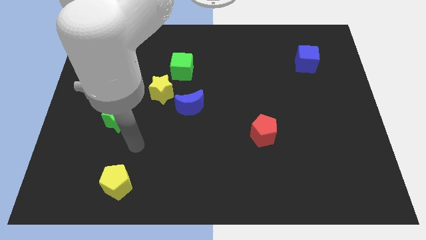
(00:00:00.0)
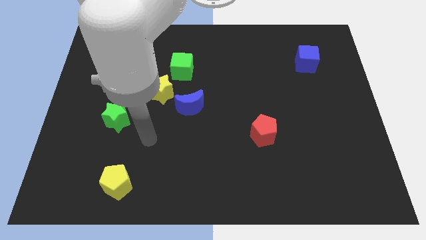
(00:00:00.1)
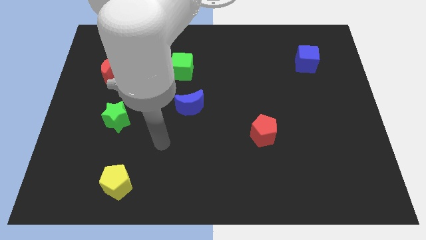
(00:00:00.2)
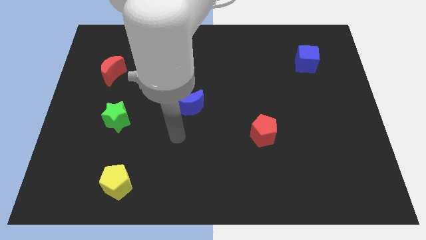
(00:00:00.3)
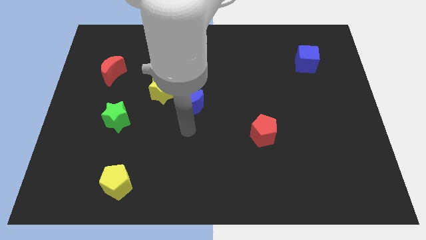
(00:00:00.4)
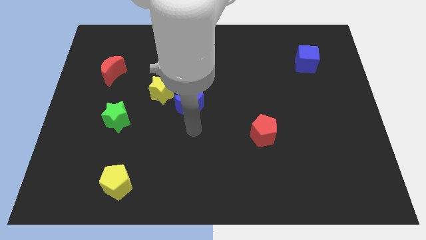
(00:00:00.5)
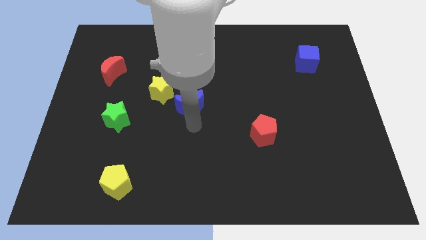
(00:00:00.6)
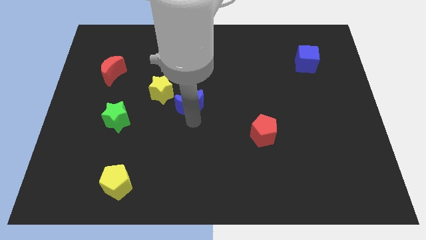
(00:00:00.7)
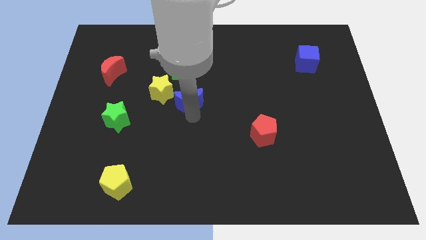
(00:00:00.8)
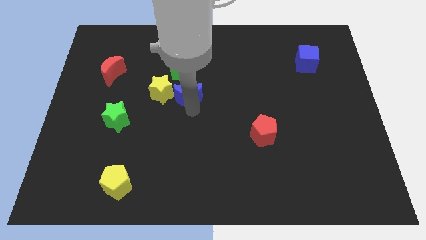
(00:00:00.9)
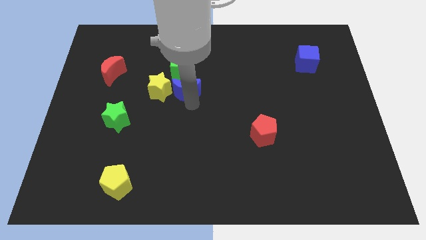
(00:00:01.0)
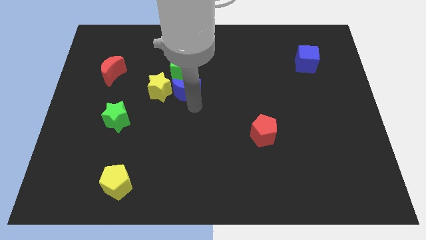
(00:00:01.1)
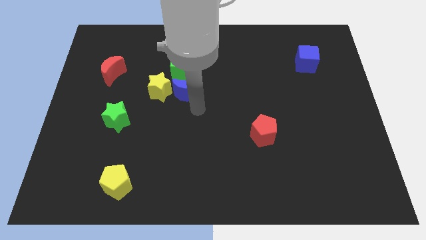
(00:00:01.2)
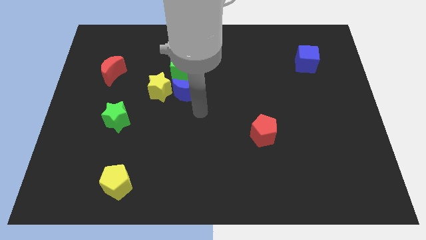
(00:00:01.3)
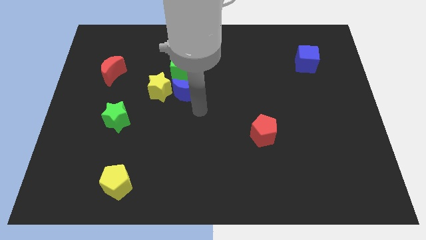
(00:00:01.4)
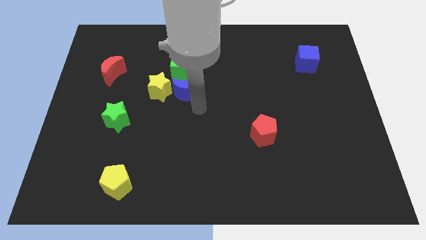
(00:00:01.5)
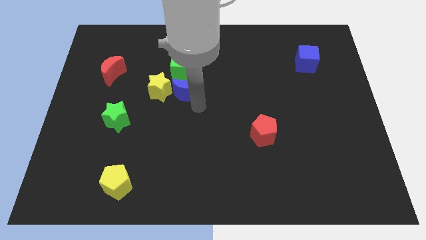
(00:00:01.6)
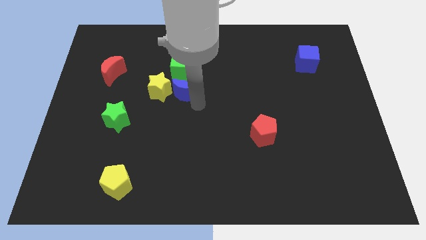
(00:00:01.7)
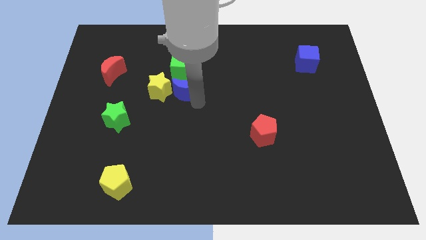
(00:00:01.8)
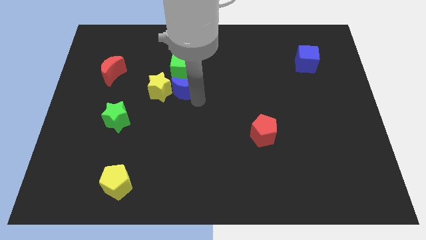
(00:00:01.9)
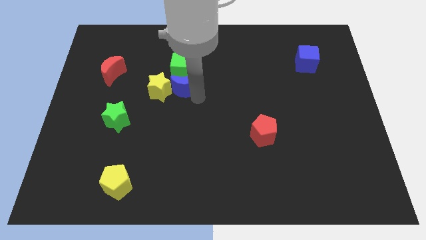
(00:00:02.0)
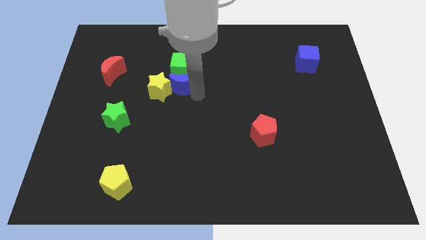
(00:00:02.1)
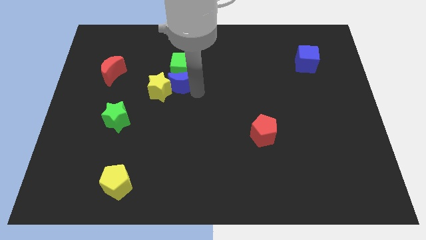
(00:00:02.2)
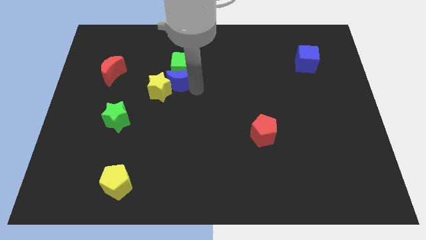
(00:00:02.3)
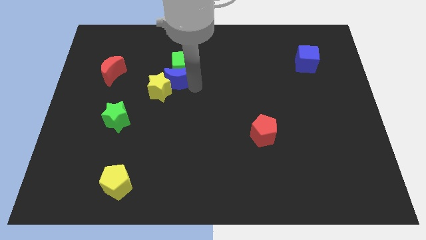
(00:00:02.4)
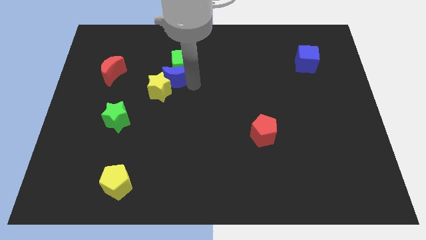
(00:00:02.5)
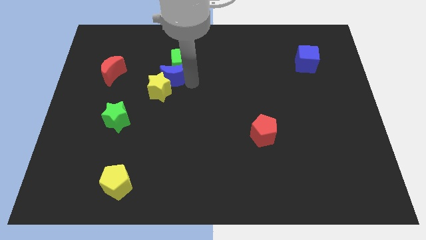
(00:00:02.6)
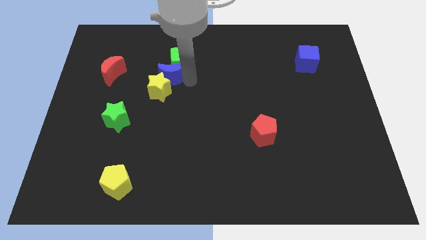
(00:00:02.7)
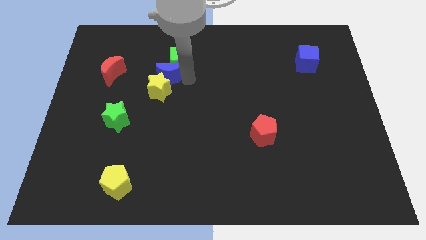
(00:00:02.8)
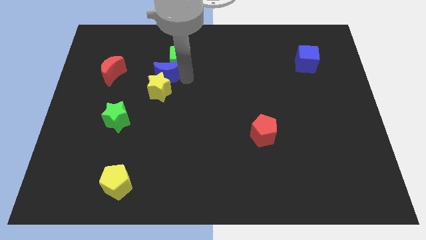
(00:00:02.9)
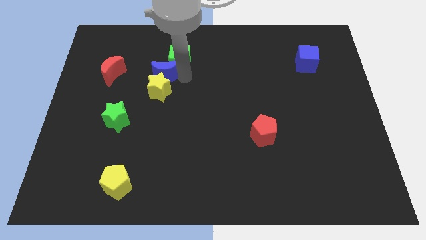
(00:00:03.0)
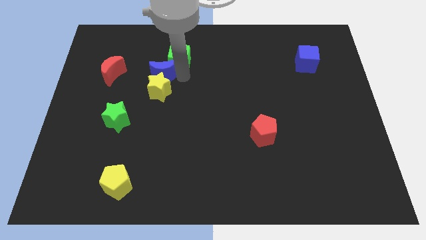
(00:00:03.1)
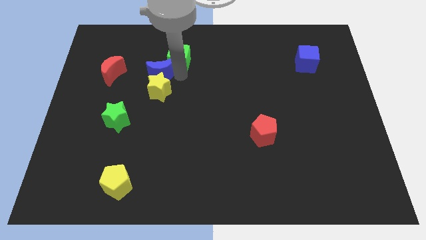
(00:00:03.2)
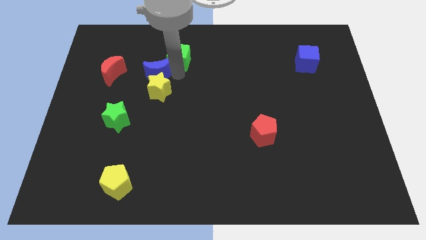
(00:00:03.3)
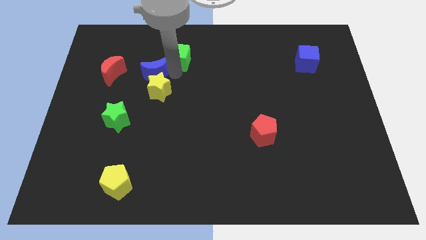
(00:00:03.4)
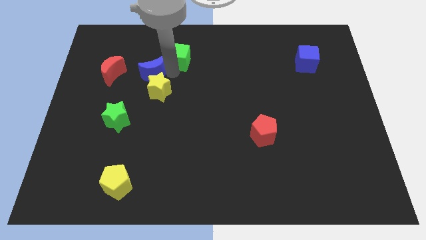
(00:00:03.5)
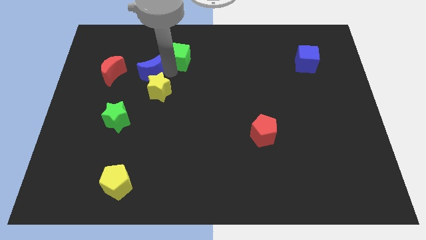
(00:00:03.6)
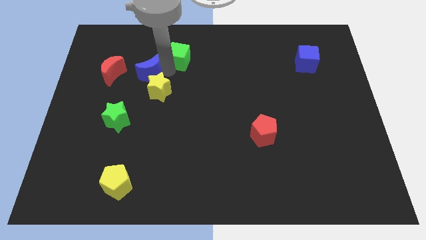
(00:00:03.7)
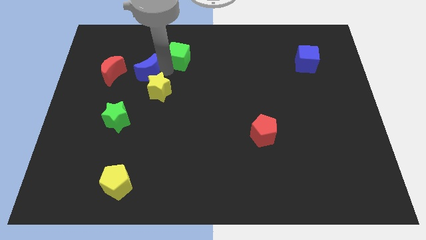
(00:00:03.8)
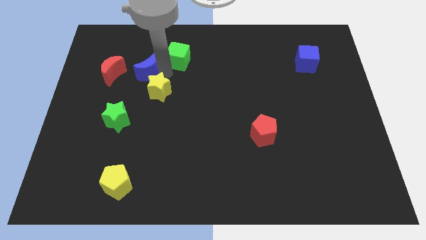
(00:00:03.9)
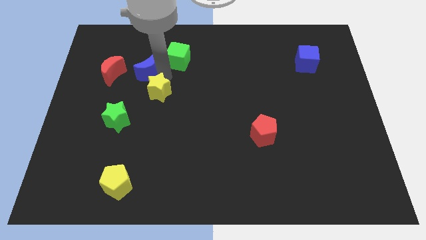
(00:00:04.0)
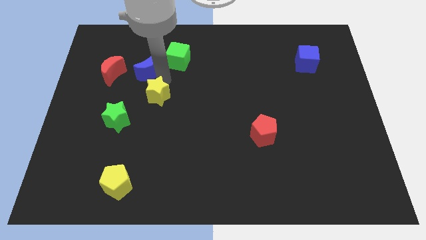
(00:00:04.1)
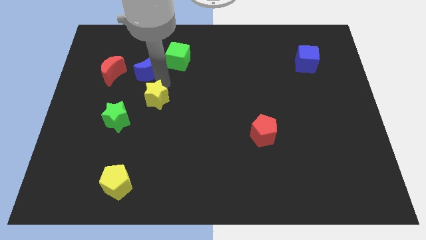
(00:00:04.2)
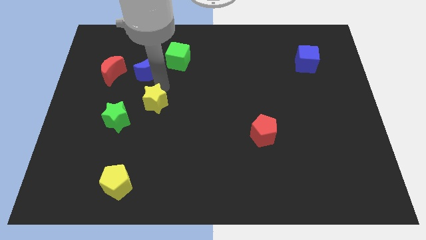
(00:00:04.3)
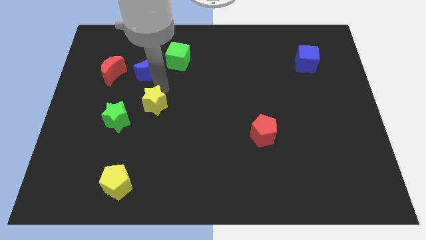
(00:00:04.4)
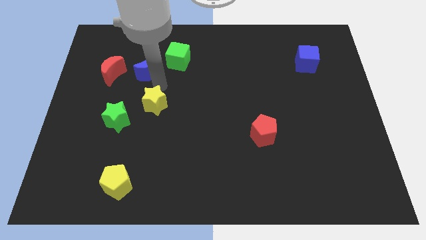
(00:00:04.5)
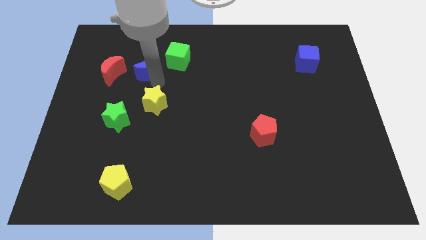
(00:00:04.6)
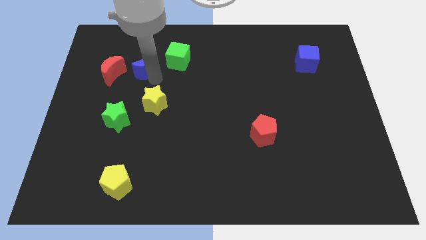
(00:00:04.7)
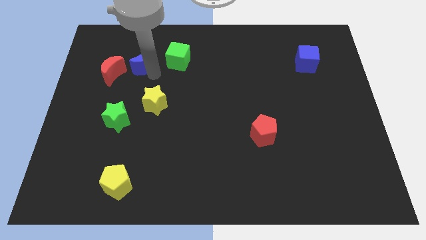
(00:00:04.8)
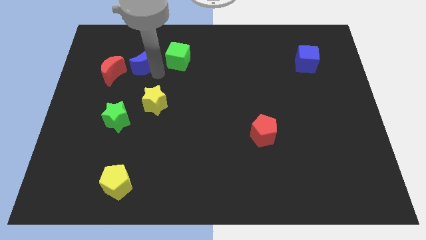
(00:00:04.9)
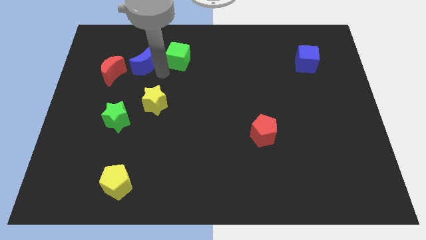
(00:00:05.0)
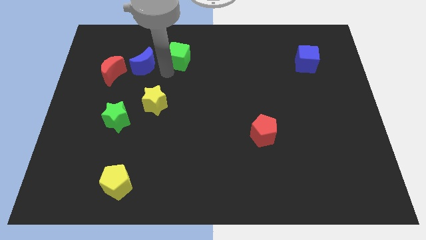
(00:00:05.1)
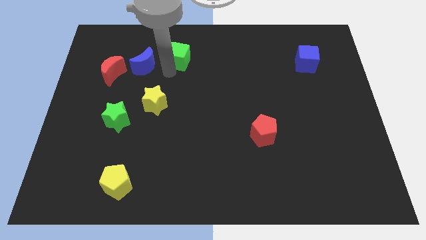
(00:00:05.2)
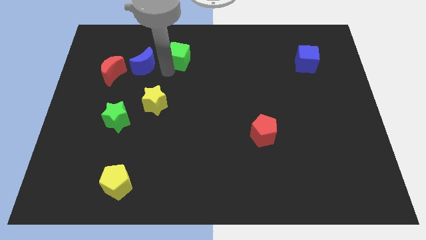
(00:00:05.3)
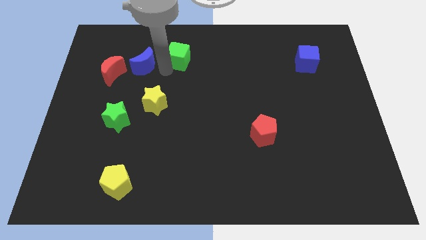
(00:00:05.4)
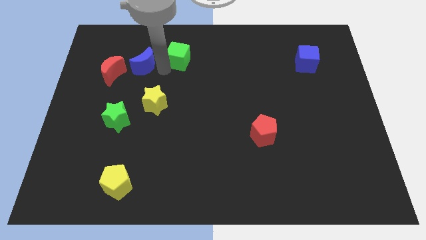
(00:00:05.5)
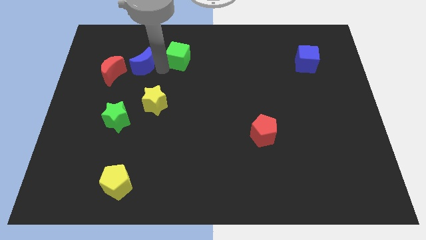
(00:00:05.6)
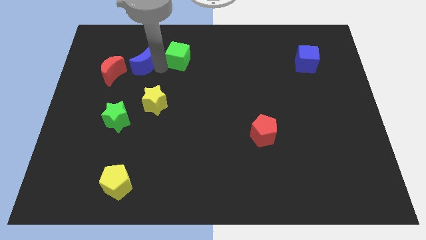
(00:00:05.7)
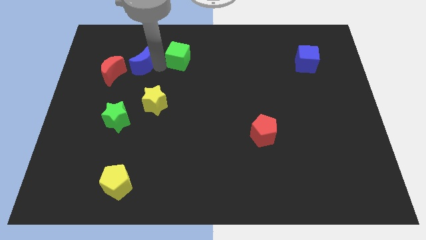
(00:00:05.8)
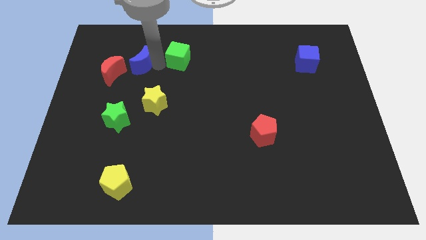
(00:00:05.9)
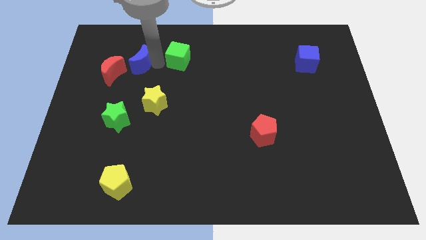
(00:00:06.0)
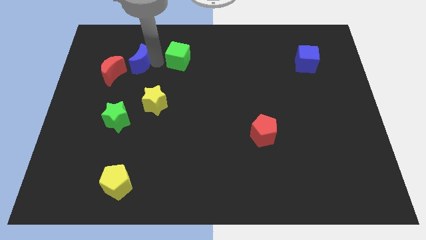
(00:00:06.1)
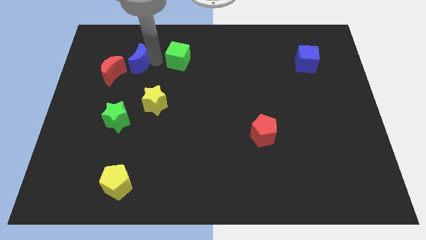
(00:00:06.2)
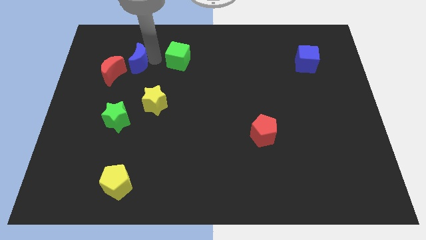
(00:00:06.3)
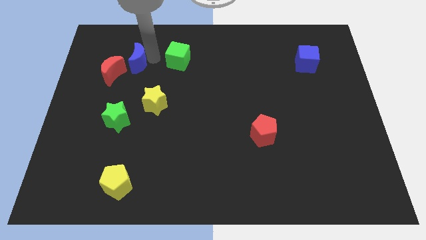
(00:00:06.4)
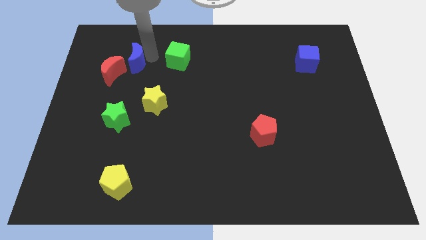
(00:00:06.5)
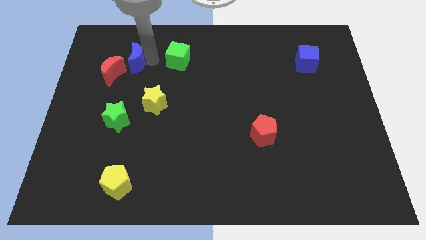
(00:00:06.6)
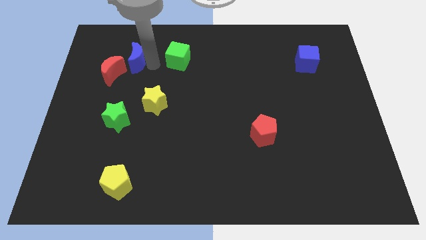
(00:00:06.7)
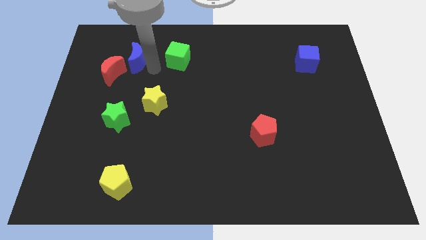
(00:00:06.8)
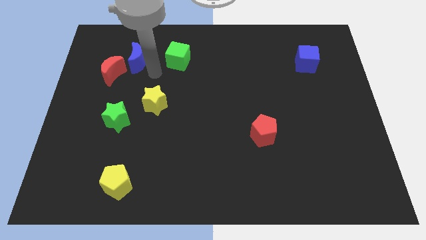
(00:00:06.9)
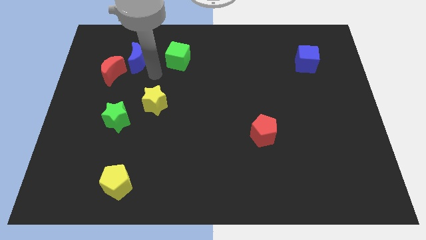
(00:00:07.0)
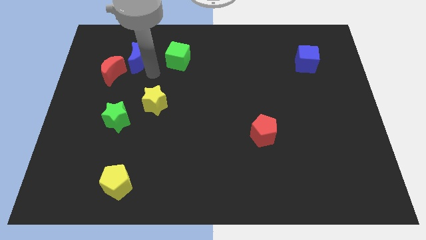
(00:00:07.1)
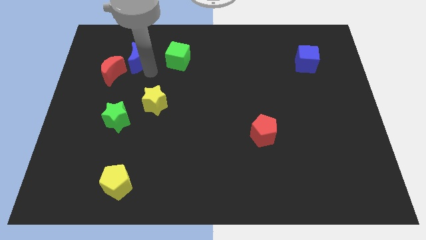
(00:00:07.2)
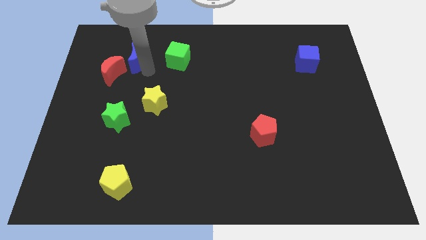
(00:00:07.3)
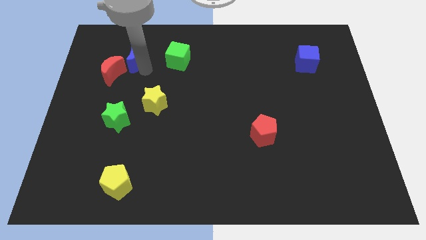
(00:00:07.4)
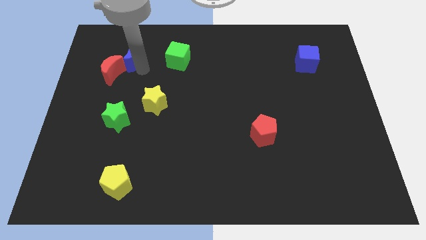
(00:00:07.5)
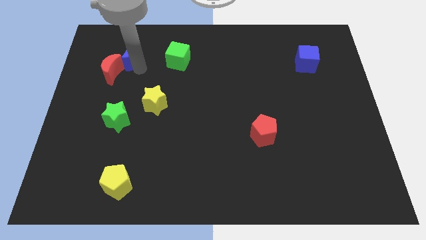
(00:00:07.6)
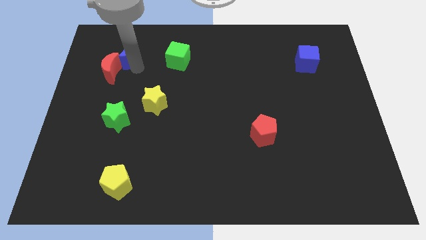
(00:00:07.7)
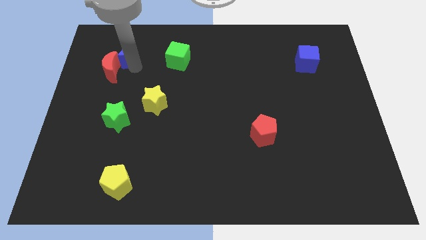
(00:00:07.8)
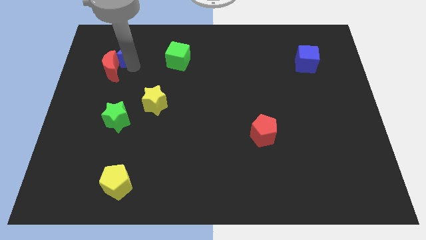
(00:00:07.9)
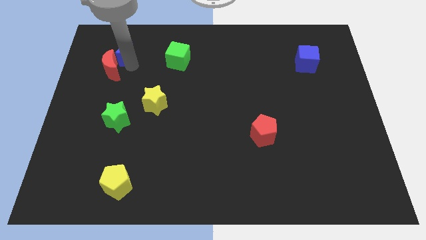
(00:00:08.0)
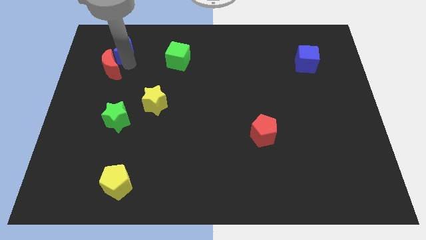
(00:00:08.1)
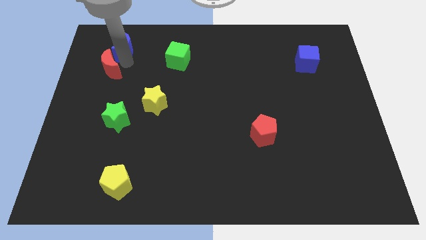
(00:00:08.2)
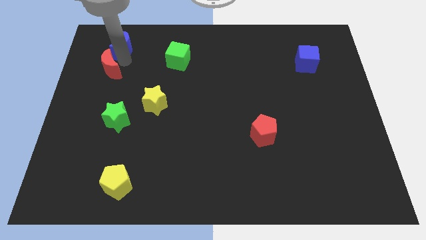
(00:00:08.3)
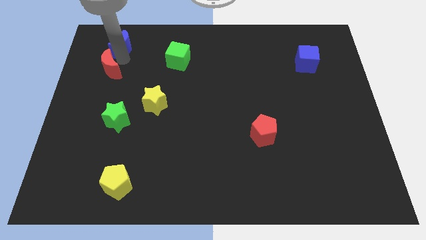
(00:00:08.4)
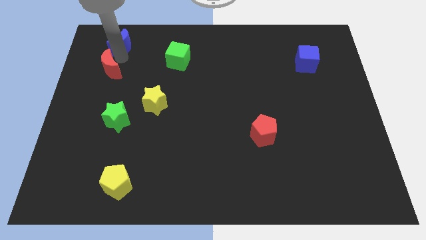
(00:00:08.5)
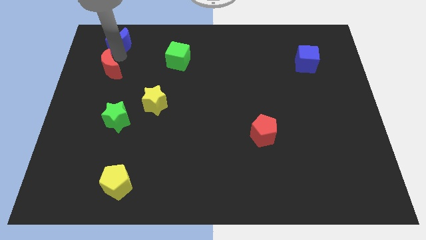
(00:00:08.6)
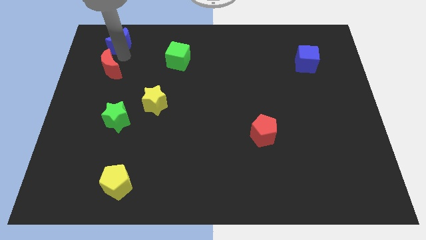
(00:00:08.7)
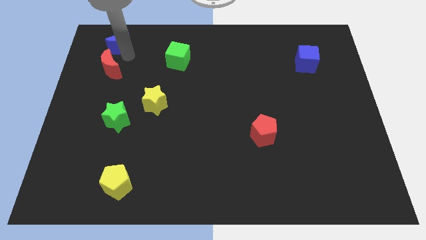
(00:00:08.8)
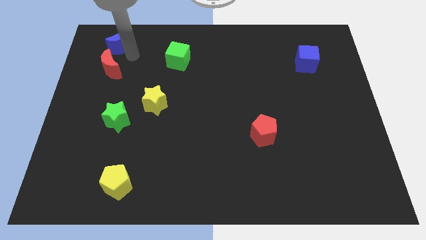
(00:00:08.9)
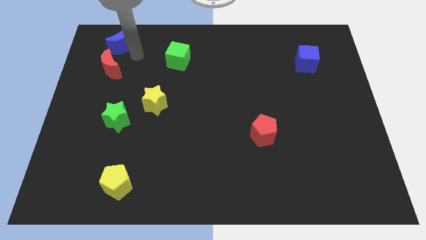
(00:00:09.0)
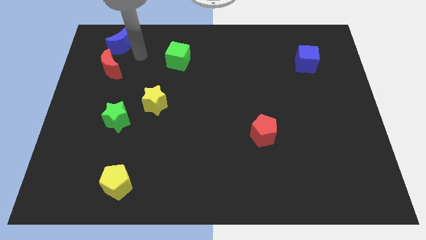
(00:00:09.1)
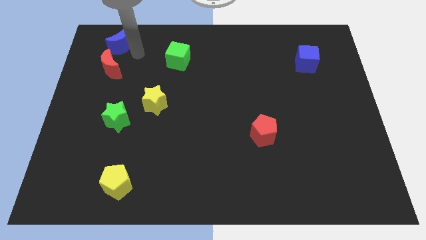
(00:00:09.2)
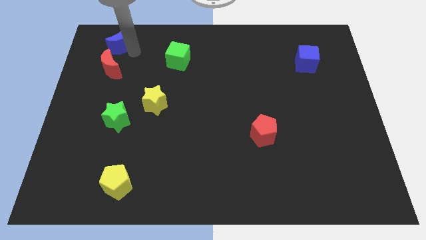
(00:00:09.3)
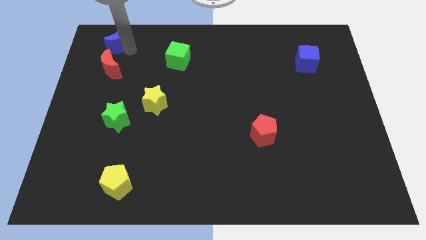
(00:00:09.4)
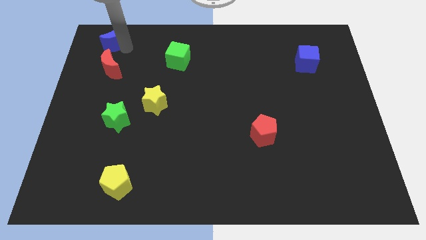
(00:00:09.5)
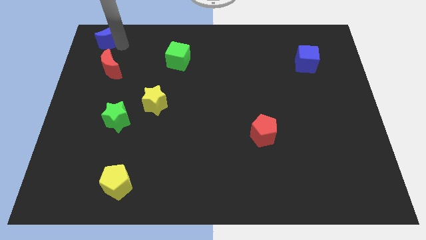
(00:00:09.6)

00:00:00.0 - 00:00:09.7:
put the blue moon to the top left
